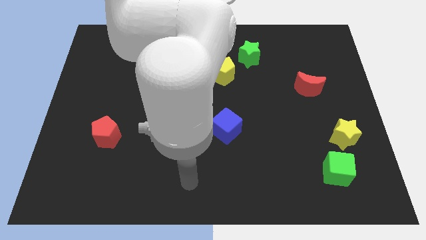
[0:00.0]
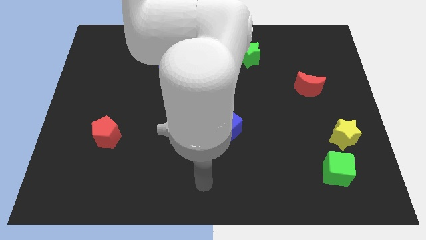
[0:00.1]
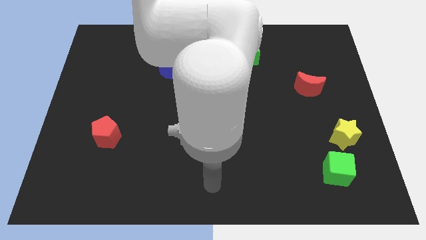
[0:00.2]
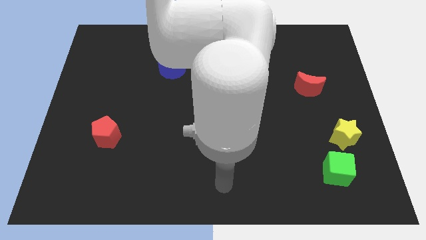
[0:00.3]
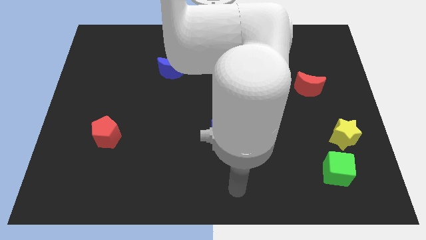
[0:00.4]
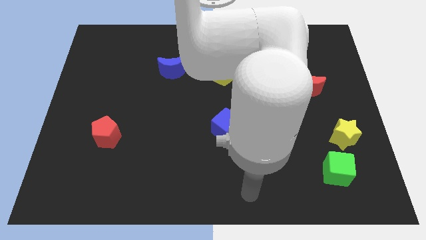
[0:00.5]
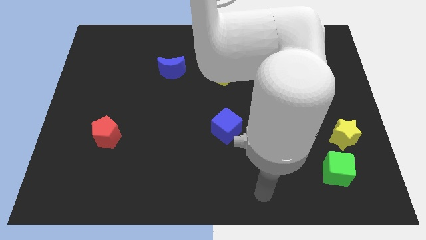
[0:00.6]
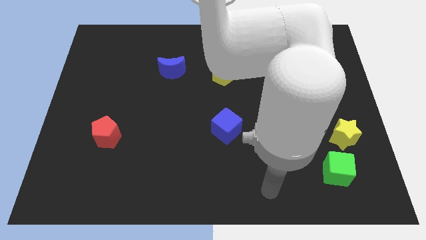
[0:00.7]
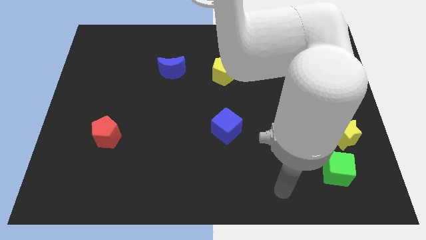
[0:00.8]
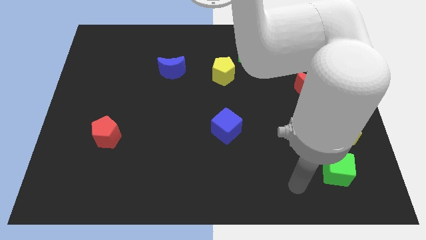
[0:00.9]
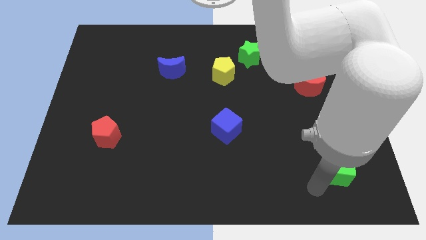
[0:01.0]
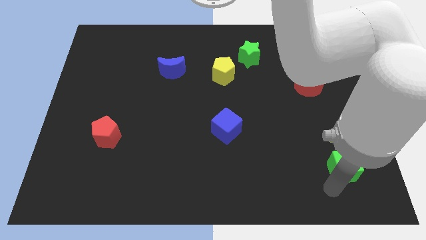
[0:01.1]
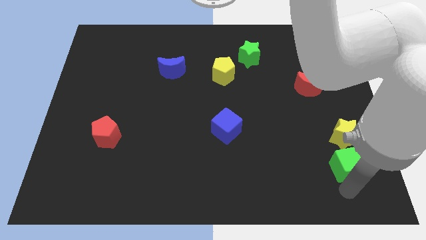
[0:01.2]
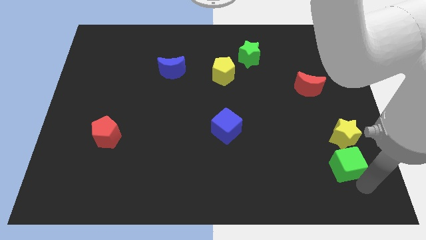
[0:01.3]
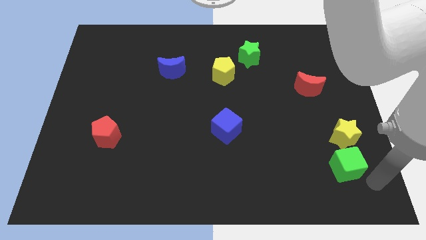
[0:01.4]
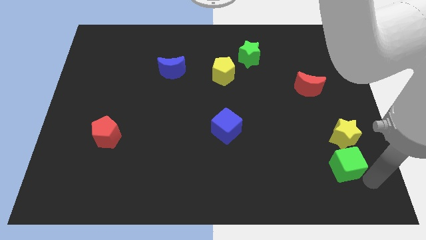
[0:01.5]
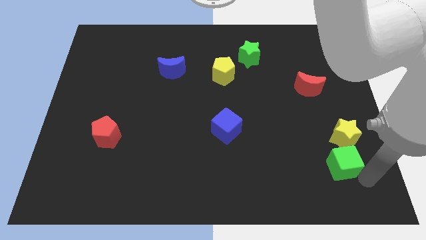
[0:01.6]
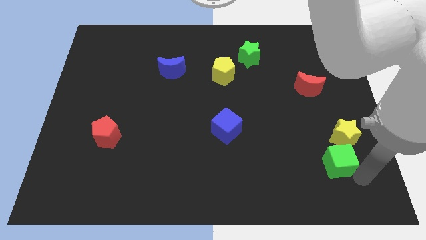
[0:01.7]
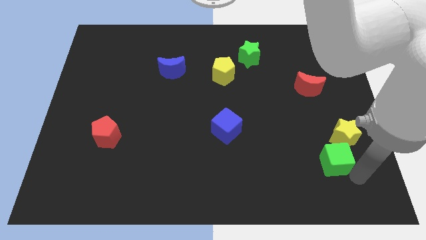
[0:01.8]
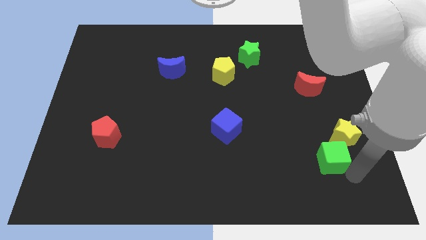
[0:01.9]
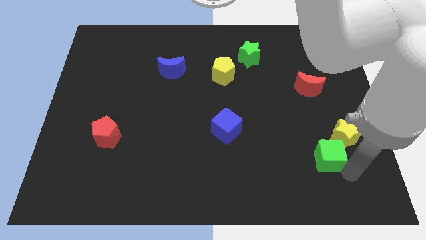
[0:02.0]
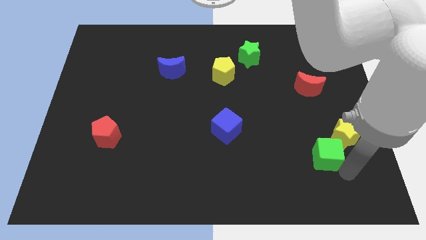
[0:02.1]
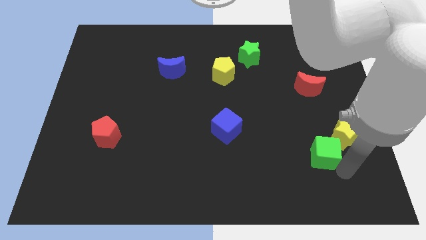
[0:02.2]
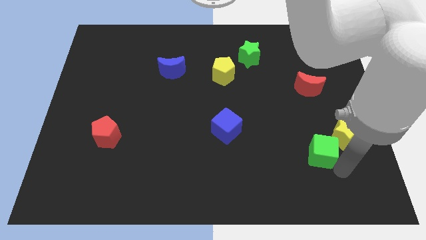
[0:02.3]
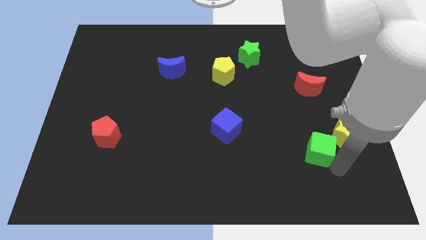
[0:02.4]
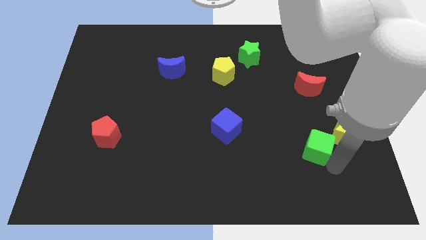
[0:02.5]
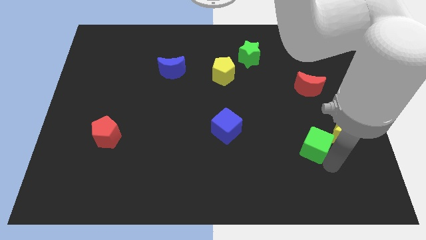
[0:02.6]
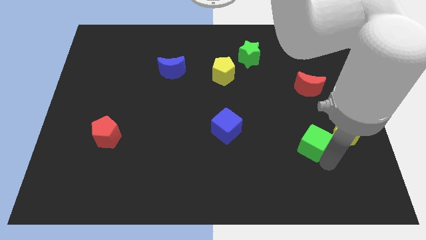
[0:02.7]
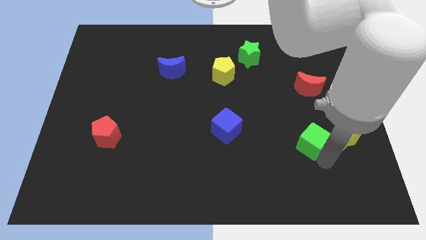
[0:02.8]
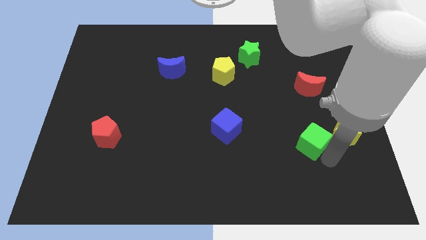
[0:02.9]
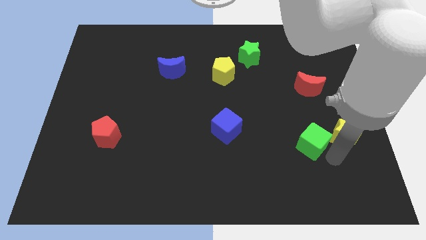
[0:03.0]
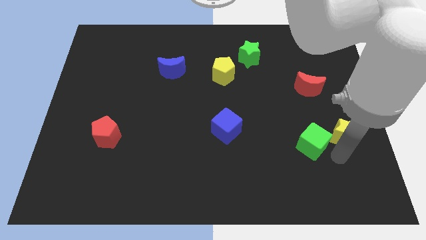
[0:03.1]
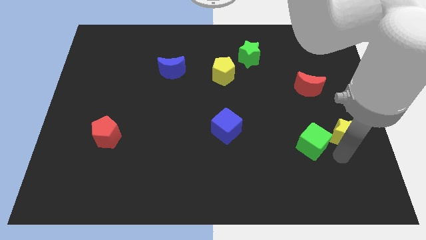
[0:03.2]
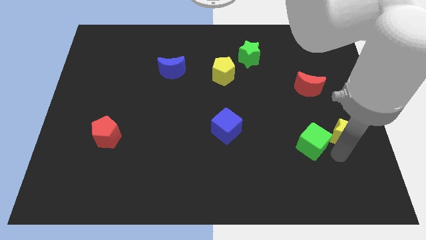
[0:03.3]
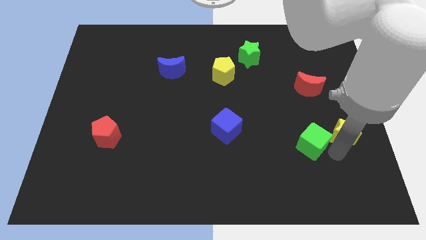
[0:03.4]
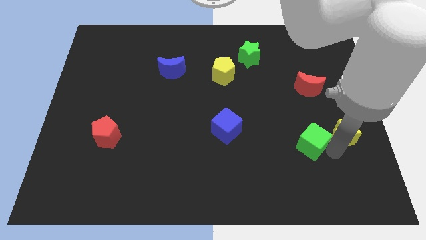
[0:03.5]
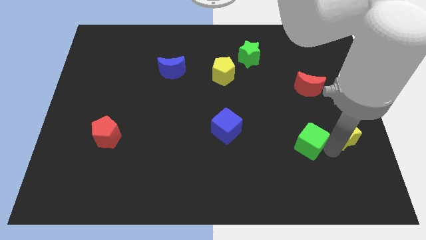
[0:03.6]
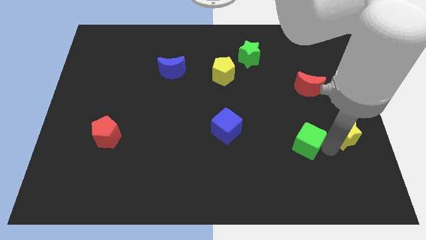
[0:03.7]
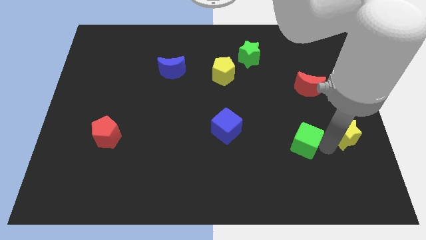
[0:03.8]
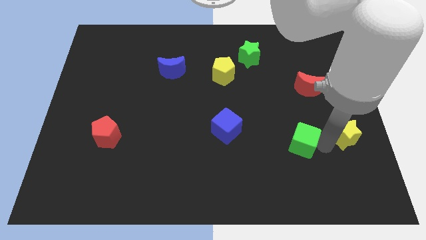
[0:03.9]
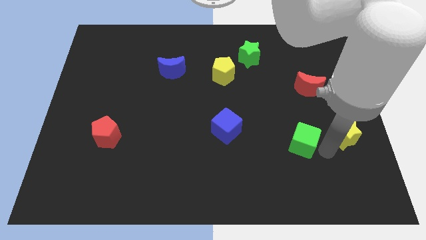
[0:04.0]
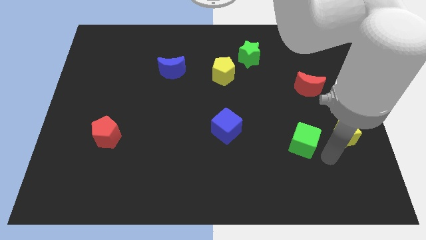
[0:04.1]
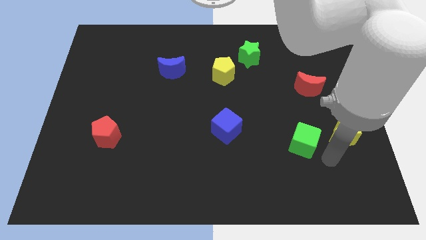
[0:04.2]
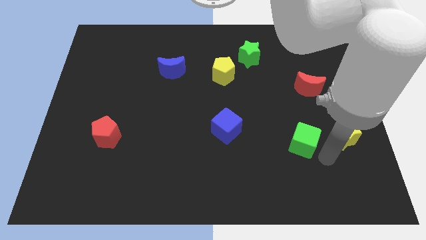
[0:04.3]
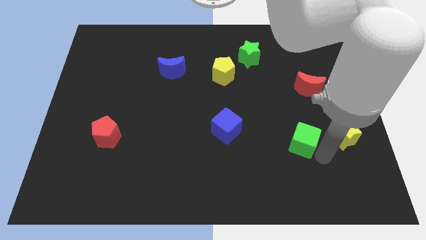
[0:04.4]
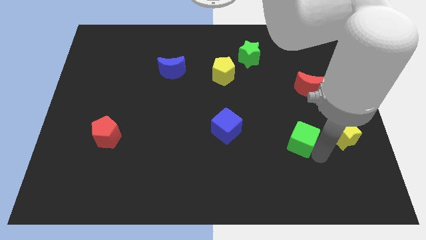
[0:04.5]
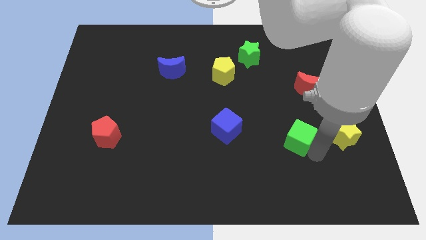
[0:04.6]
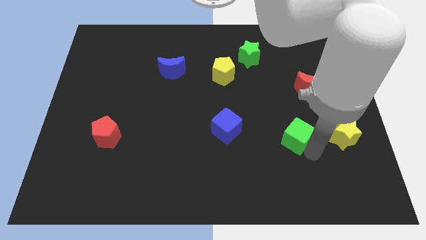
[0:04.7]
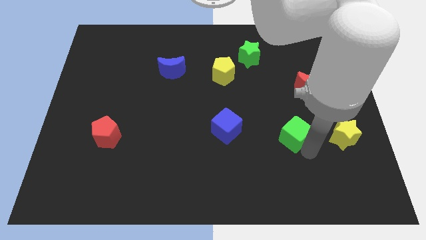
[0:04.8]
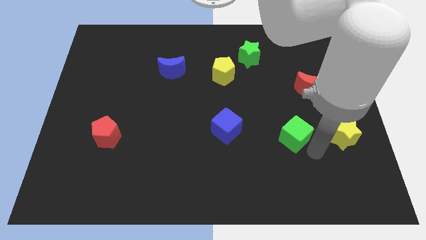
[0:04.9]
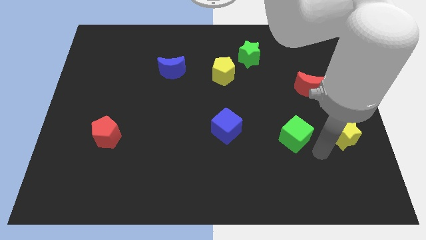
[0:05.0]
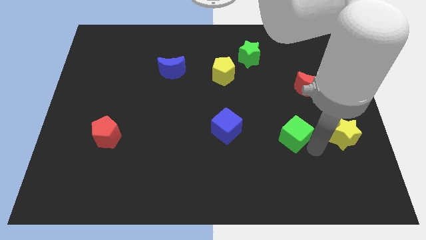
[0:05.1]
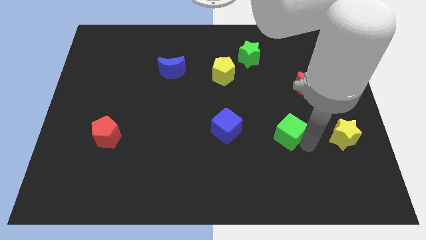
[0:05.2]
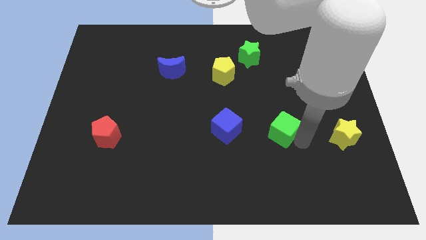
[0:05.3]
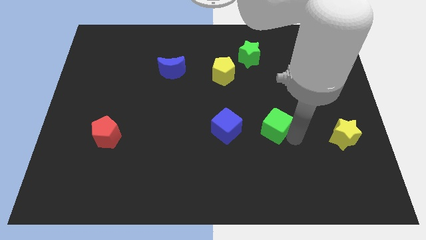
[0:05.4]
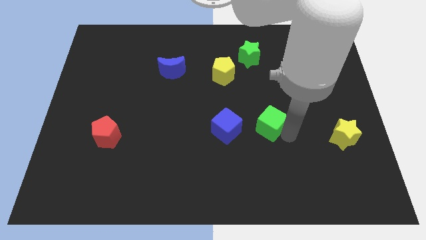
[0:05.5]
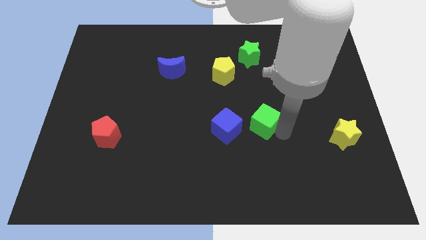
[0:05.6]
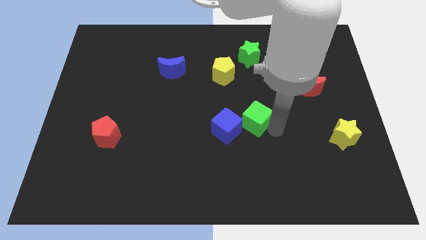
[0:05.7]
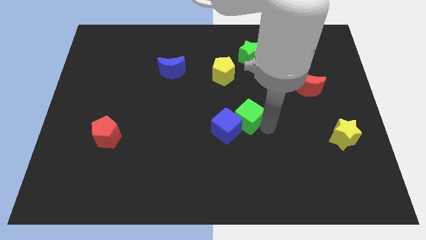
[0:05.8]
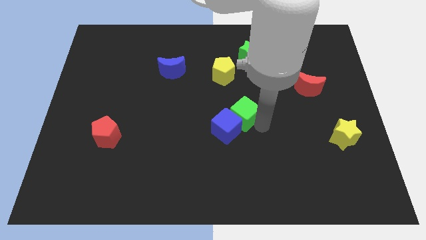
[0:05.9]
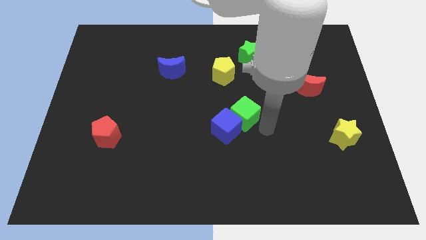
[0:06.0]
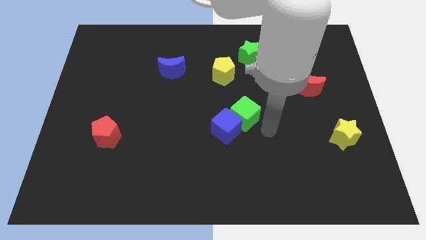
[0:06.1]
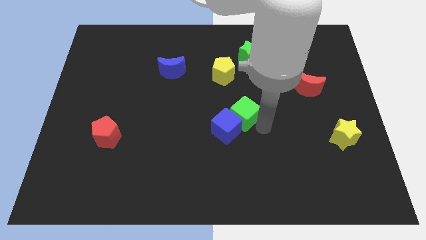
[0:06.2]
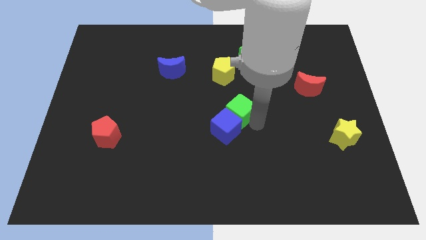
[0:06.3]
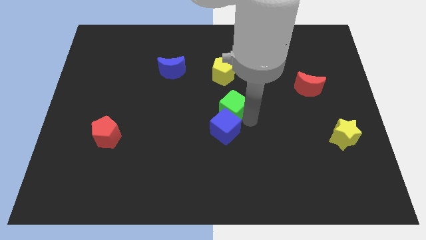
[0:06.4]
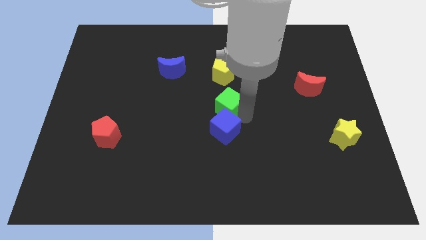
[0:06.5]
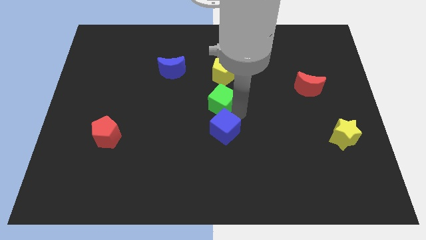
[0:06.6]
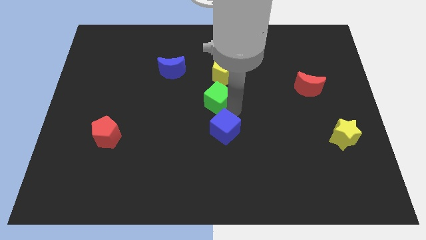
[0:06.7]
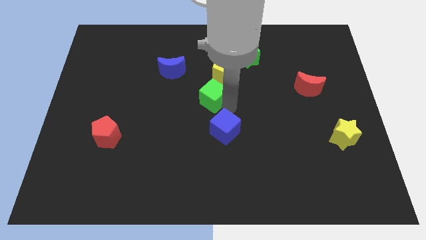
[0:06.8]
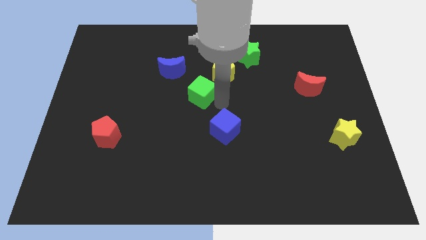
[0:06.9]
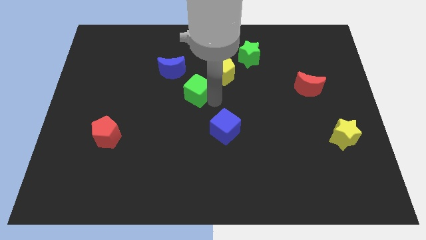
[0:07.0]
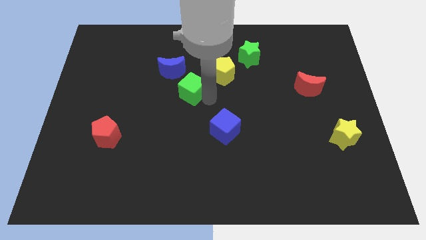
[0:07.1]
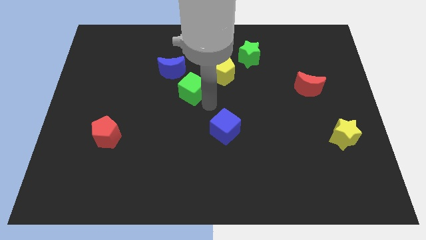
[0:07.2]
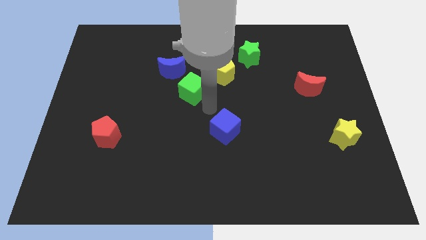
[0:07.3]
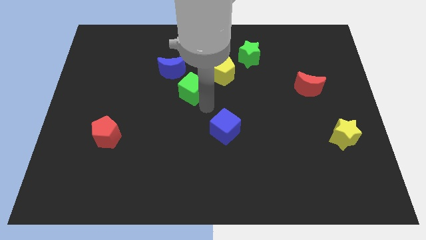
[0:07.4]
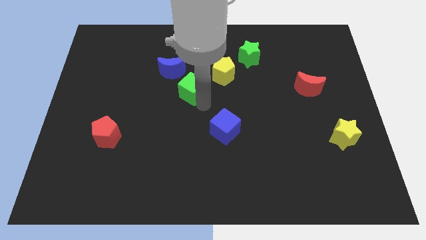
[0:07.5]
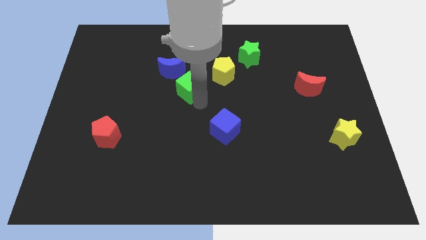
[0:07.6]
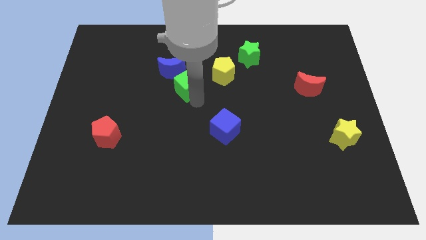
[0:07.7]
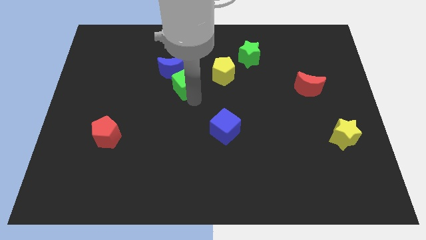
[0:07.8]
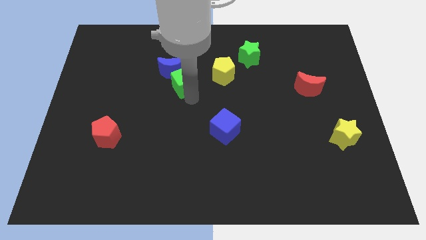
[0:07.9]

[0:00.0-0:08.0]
push the green cube close to the blue moon
